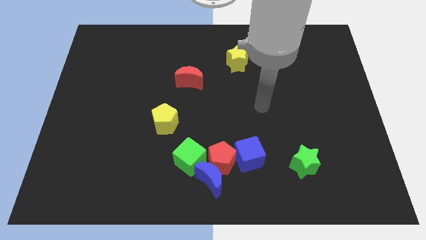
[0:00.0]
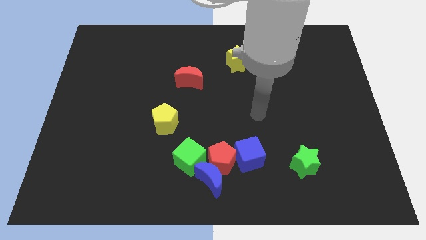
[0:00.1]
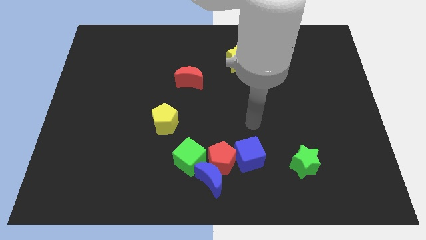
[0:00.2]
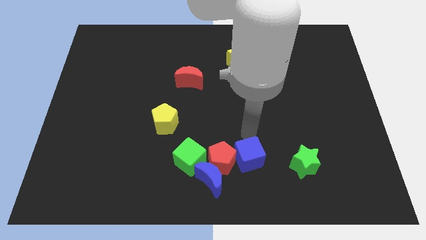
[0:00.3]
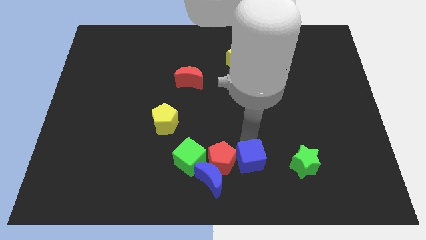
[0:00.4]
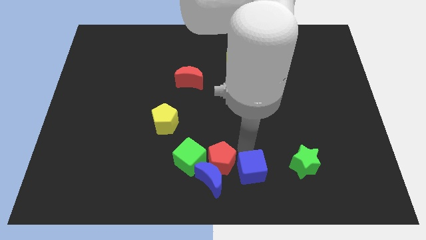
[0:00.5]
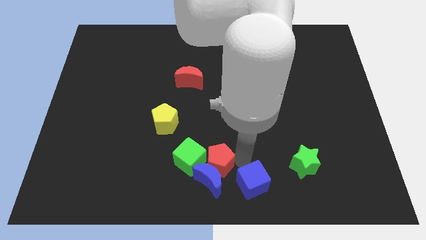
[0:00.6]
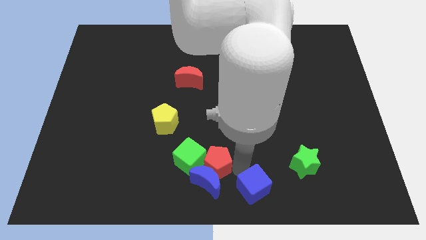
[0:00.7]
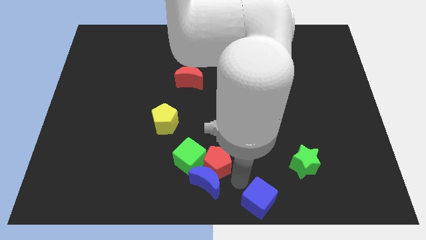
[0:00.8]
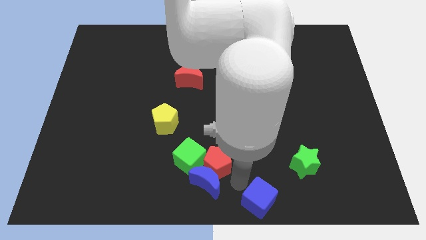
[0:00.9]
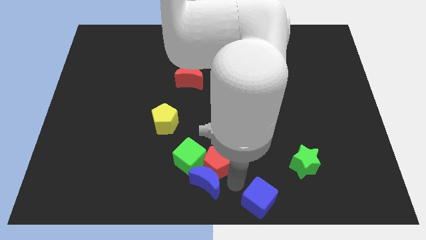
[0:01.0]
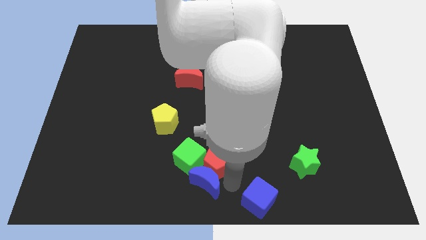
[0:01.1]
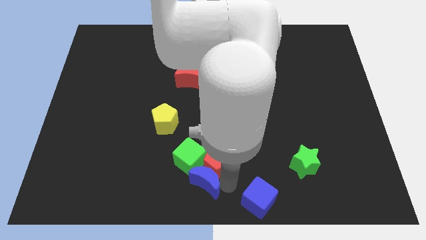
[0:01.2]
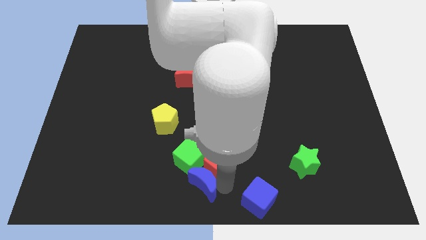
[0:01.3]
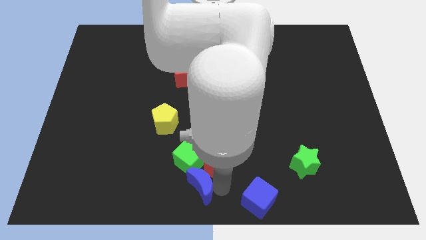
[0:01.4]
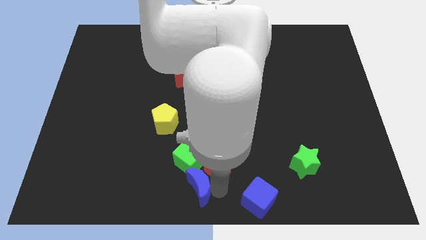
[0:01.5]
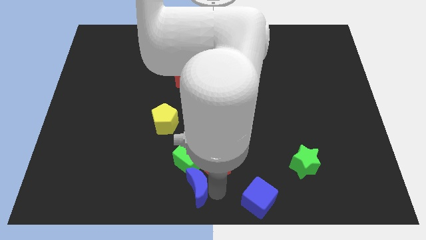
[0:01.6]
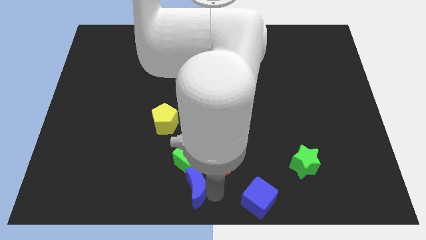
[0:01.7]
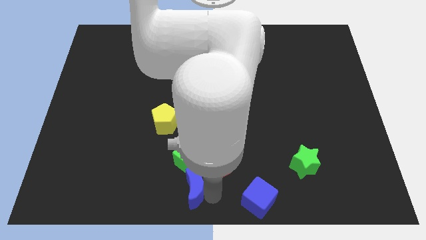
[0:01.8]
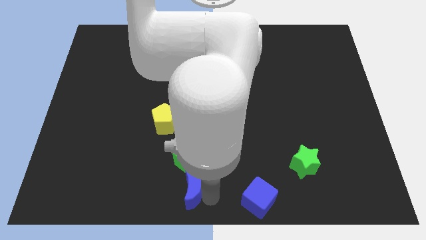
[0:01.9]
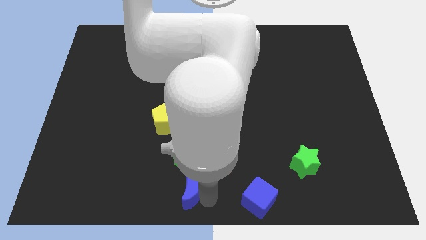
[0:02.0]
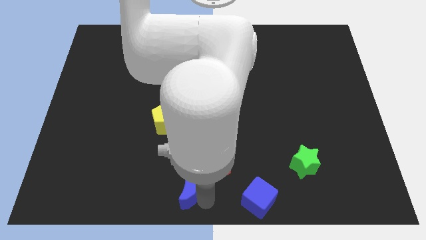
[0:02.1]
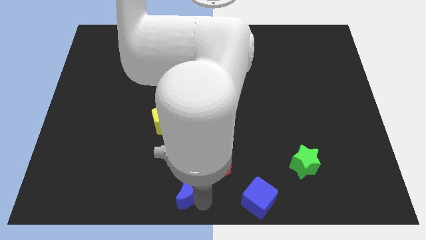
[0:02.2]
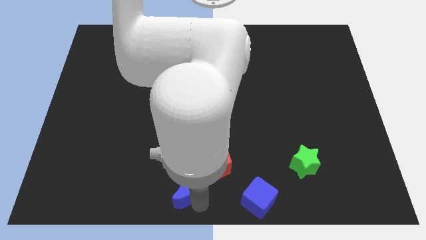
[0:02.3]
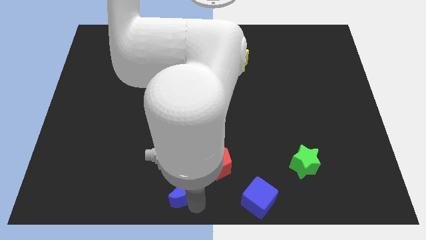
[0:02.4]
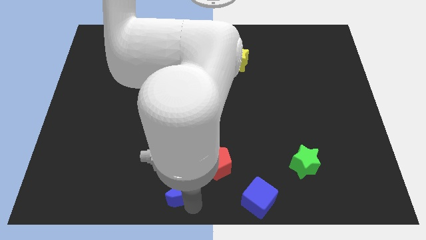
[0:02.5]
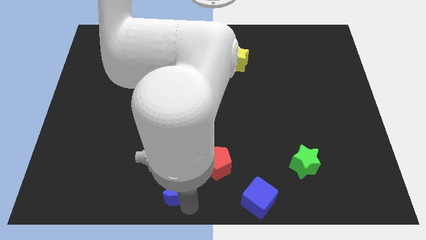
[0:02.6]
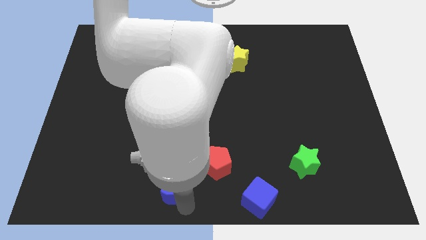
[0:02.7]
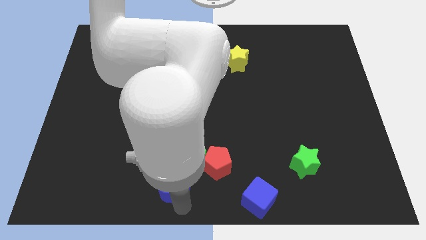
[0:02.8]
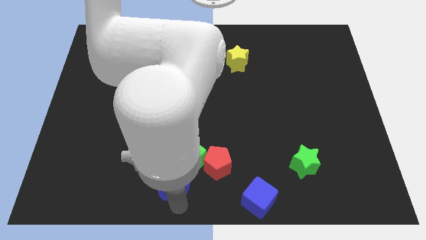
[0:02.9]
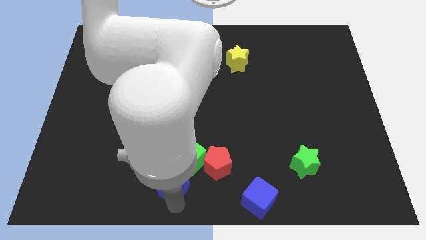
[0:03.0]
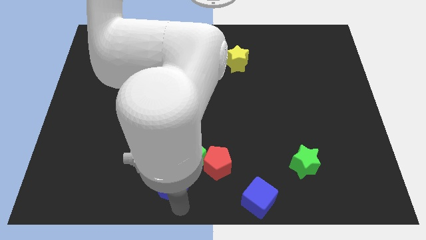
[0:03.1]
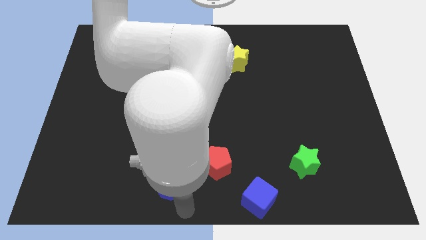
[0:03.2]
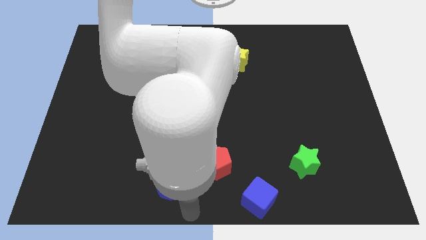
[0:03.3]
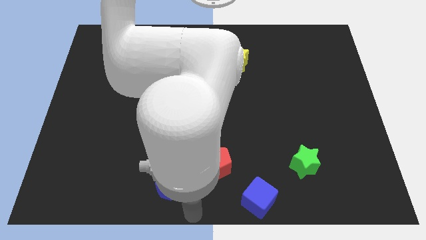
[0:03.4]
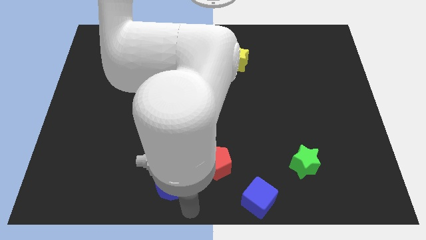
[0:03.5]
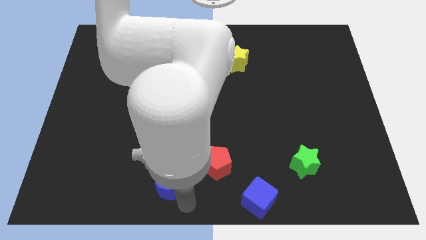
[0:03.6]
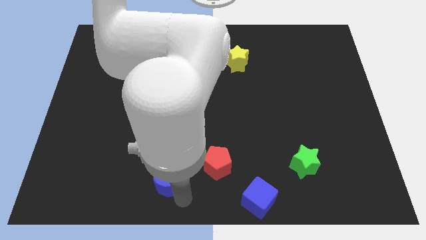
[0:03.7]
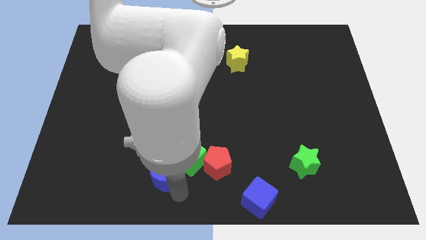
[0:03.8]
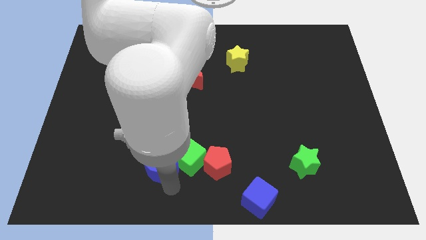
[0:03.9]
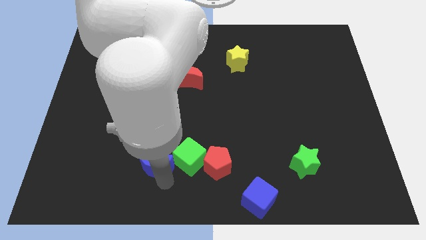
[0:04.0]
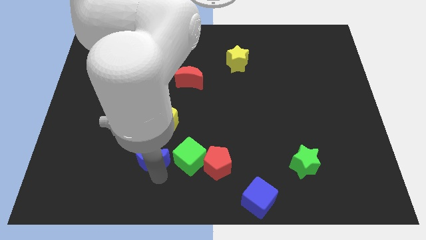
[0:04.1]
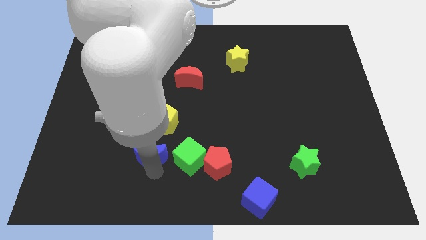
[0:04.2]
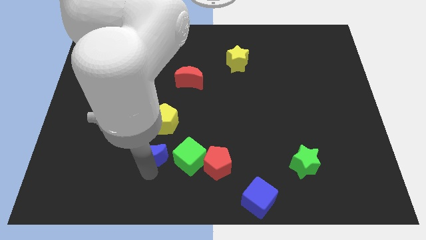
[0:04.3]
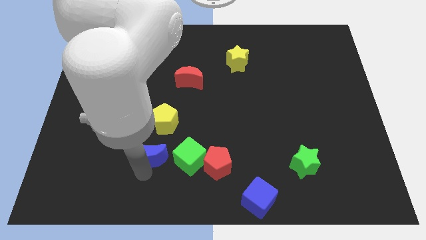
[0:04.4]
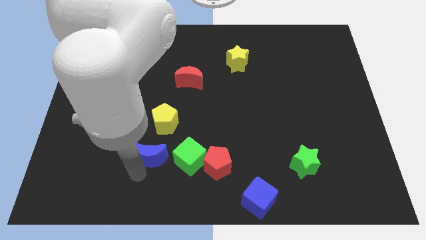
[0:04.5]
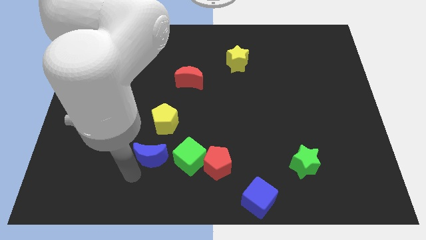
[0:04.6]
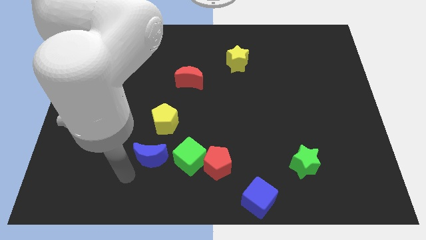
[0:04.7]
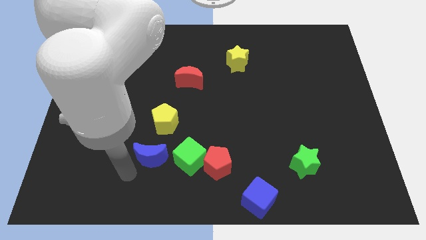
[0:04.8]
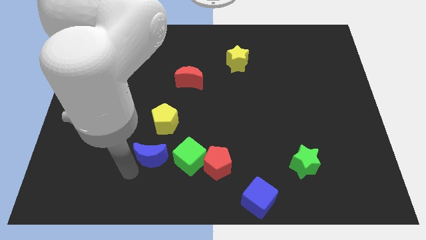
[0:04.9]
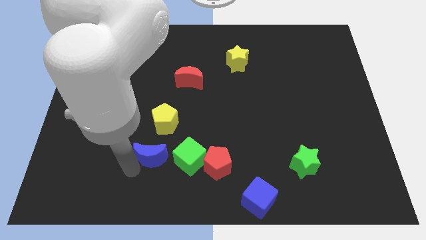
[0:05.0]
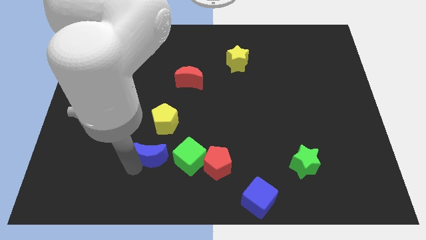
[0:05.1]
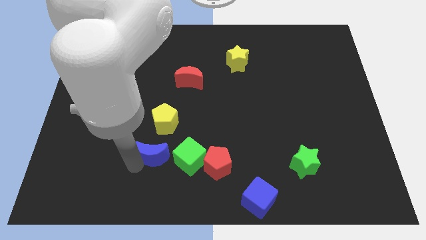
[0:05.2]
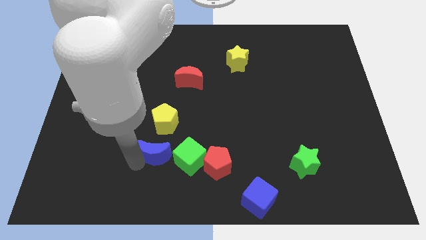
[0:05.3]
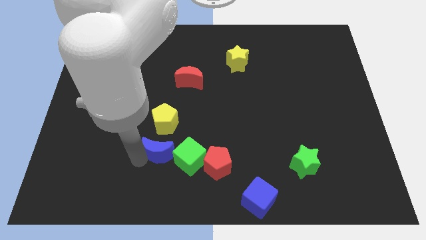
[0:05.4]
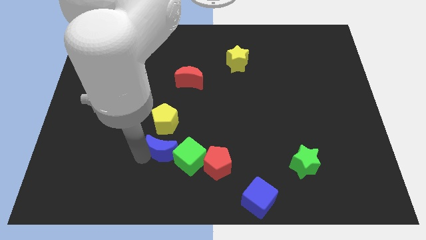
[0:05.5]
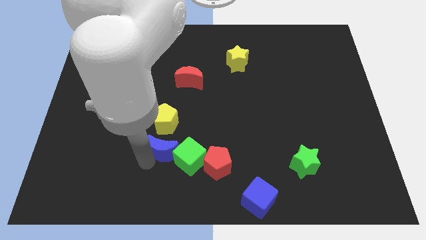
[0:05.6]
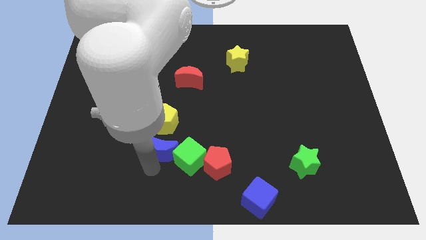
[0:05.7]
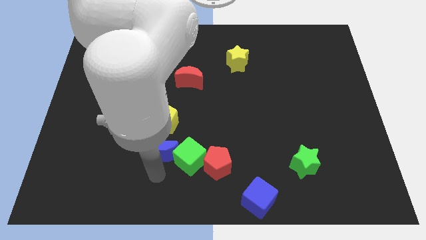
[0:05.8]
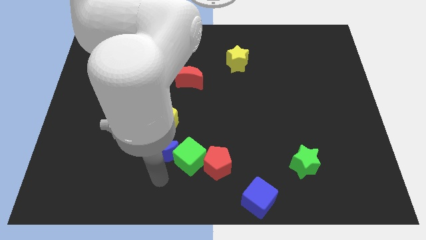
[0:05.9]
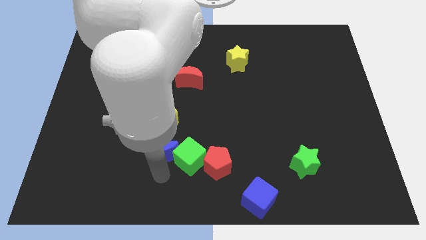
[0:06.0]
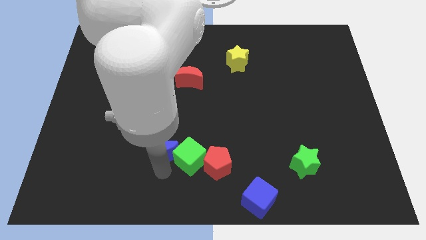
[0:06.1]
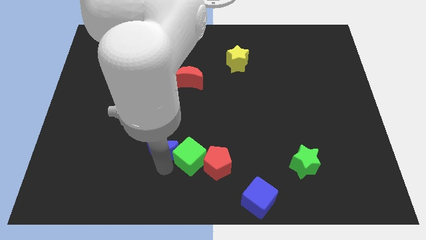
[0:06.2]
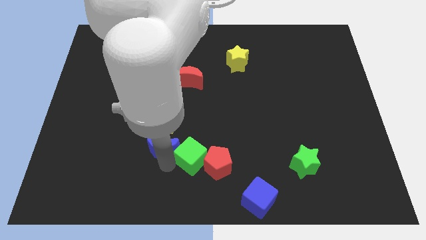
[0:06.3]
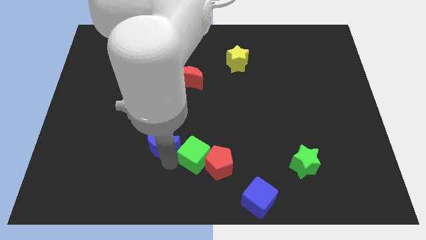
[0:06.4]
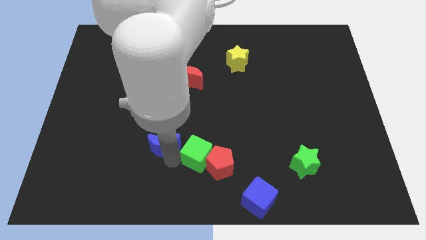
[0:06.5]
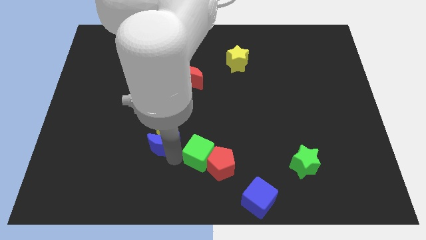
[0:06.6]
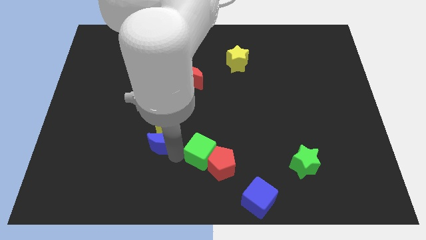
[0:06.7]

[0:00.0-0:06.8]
put the blue moon next to the yellow pentagon

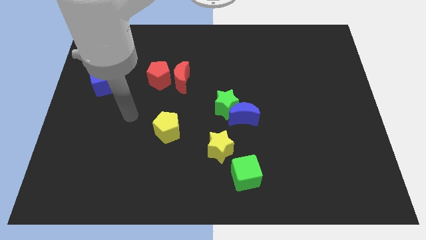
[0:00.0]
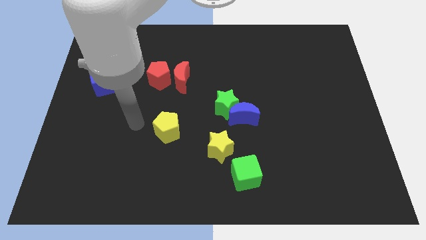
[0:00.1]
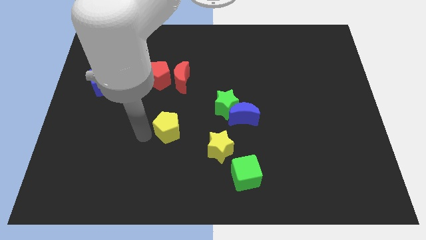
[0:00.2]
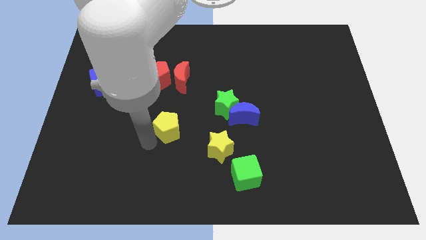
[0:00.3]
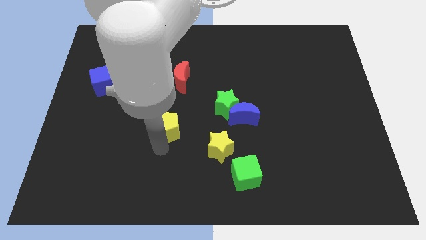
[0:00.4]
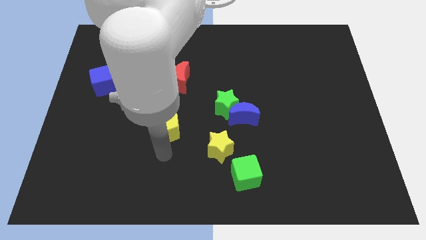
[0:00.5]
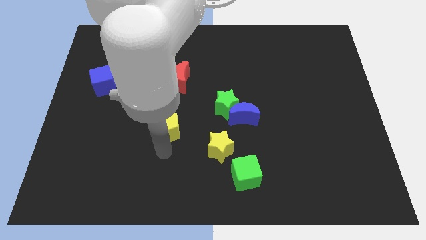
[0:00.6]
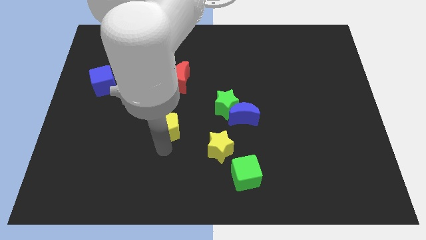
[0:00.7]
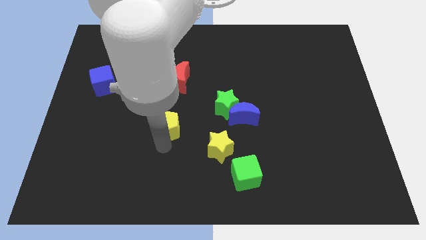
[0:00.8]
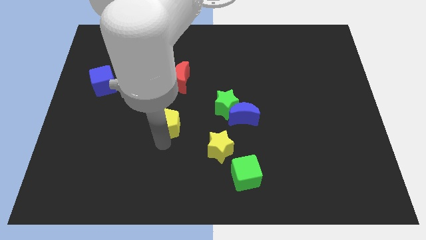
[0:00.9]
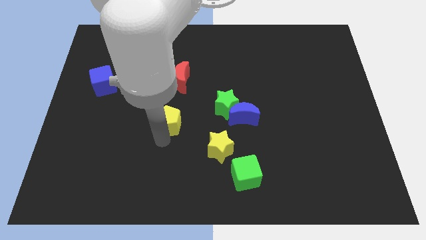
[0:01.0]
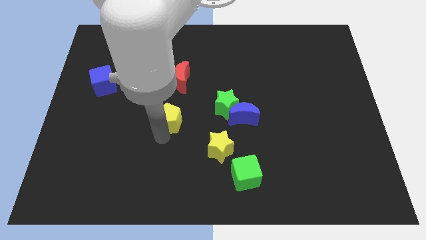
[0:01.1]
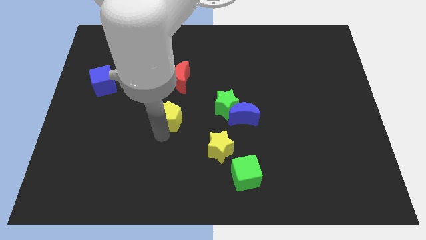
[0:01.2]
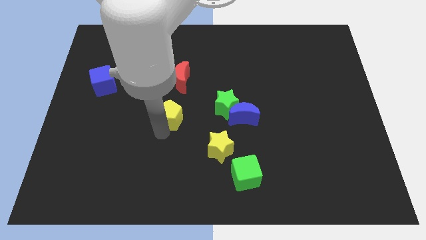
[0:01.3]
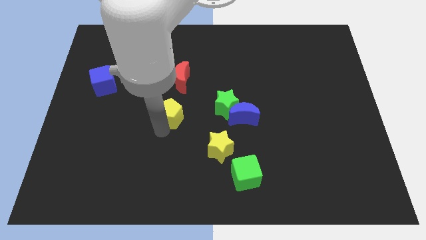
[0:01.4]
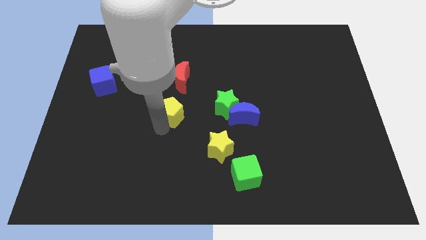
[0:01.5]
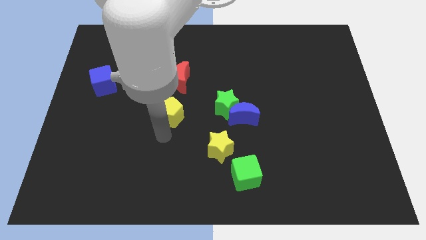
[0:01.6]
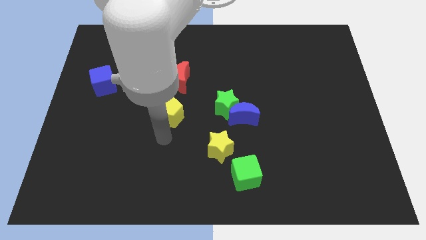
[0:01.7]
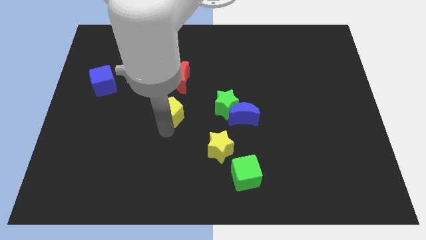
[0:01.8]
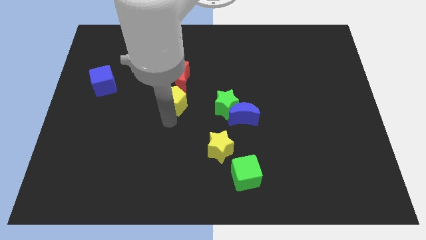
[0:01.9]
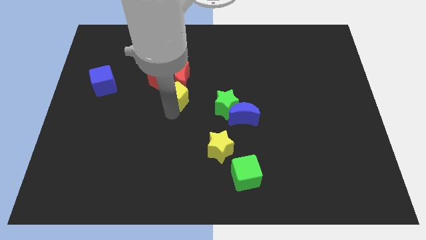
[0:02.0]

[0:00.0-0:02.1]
move the yellow pentagon towards the red moon
